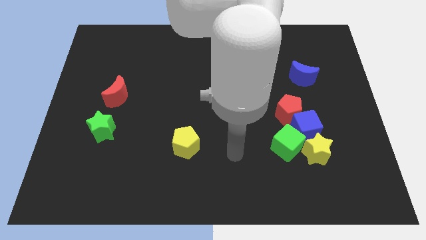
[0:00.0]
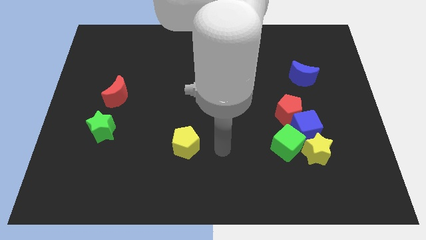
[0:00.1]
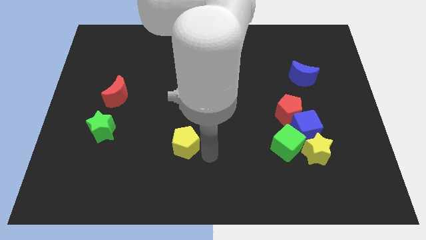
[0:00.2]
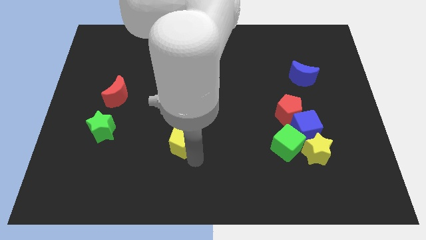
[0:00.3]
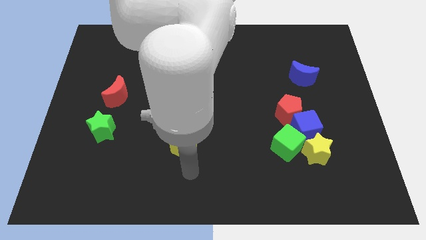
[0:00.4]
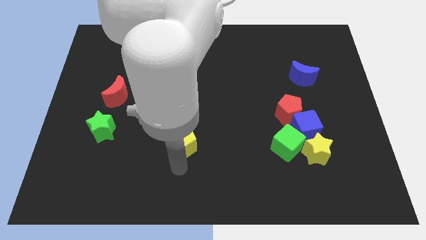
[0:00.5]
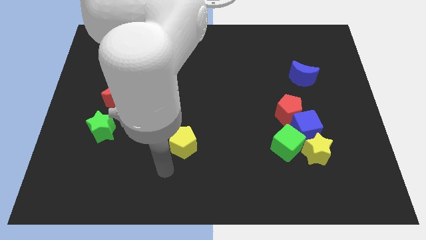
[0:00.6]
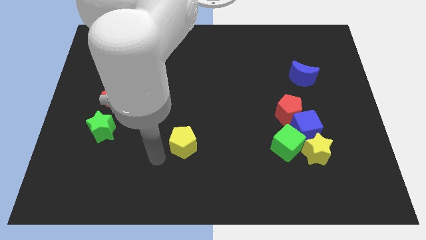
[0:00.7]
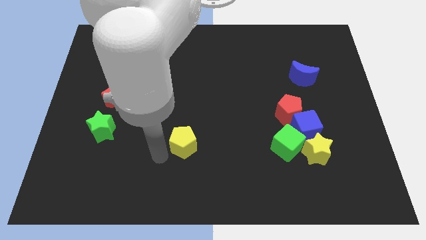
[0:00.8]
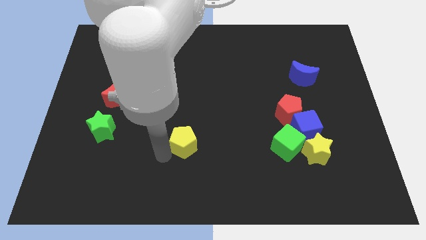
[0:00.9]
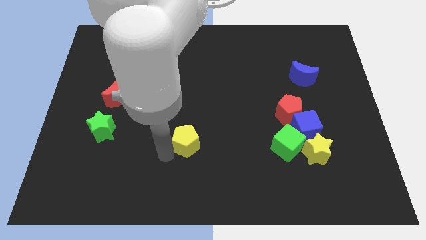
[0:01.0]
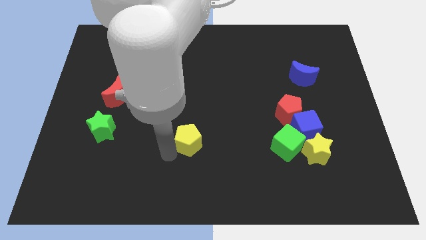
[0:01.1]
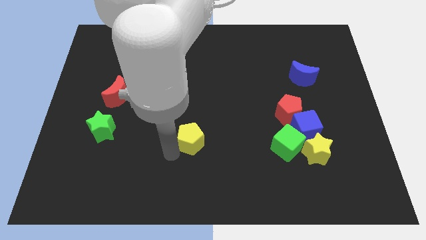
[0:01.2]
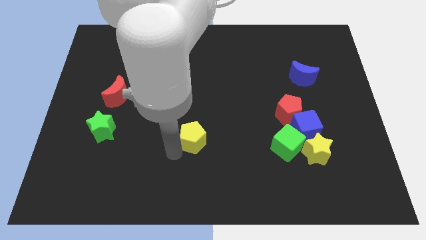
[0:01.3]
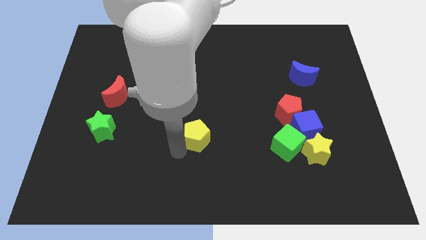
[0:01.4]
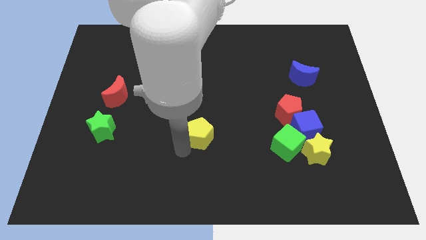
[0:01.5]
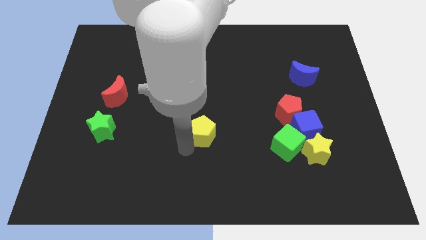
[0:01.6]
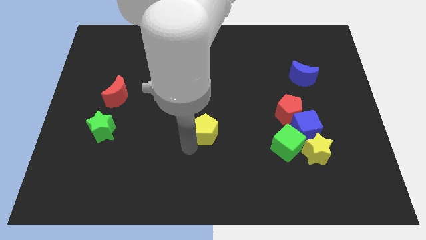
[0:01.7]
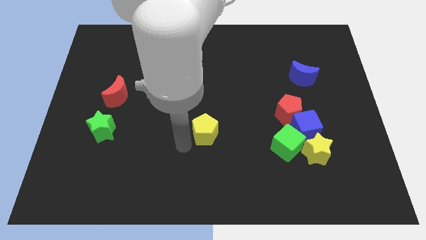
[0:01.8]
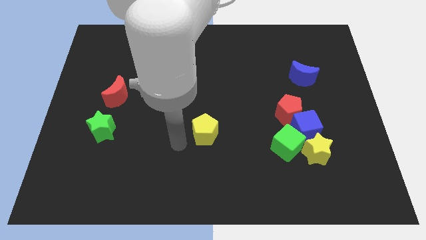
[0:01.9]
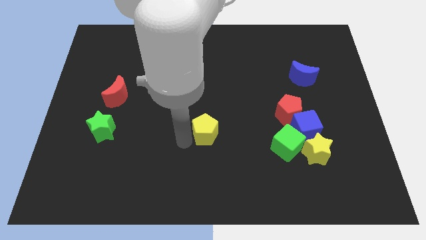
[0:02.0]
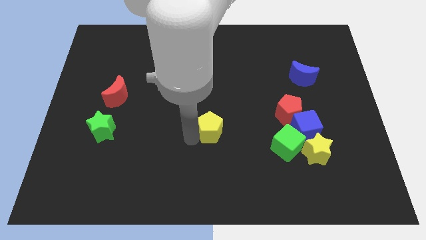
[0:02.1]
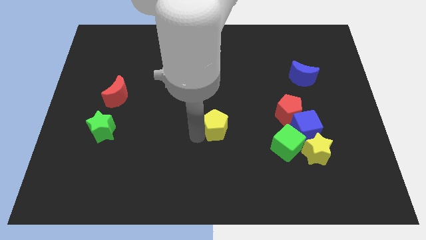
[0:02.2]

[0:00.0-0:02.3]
move the yellow pentagon upwards and right diagonally a little bit

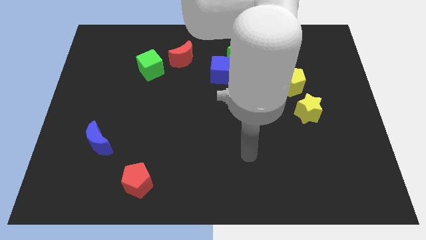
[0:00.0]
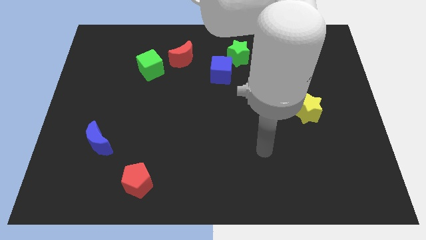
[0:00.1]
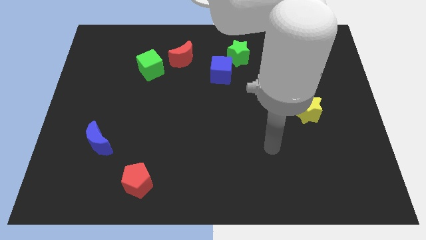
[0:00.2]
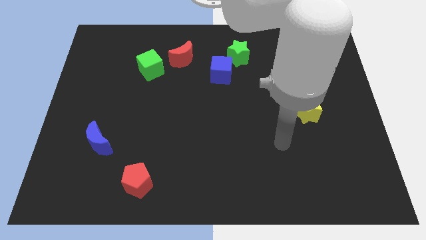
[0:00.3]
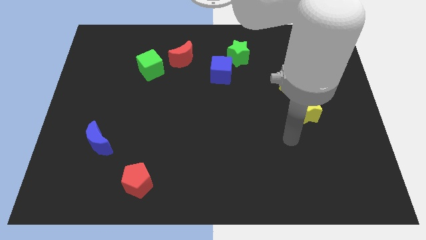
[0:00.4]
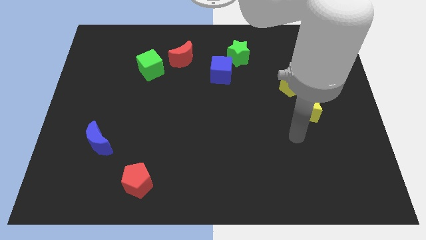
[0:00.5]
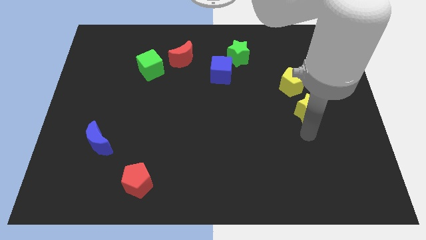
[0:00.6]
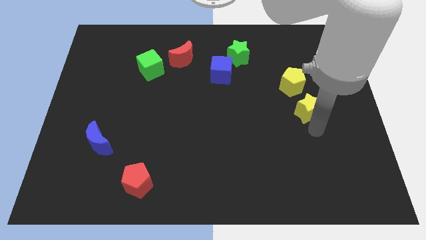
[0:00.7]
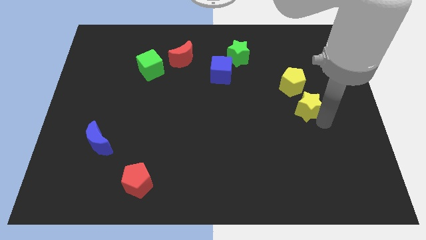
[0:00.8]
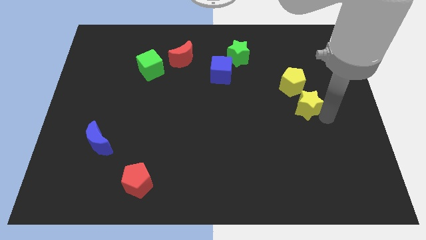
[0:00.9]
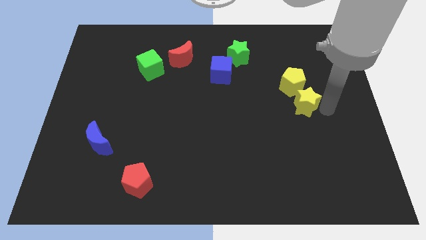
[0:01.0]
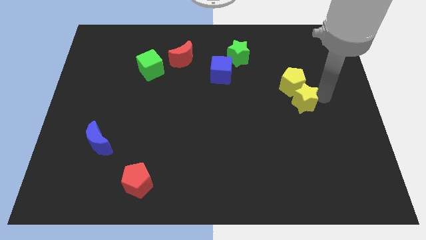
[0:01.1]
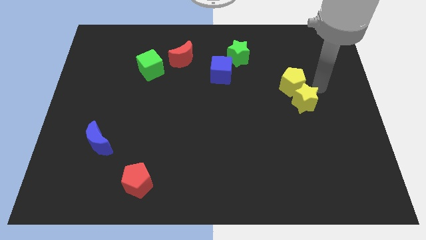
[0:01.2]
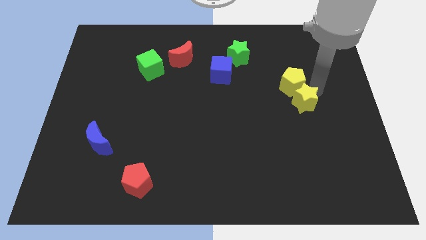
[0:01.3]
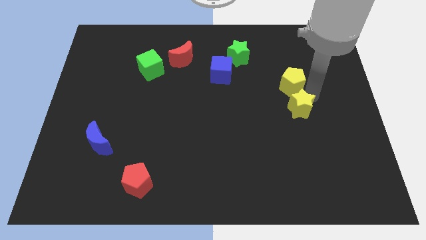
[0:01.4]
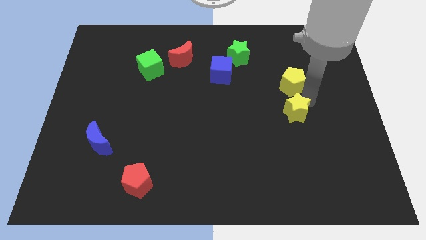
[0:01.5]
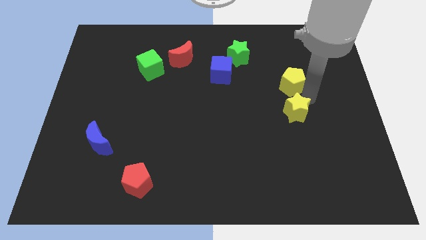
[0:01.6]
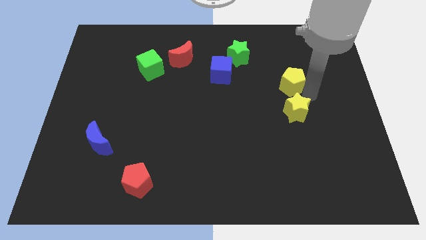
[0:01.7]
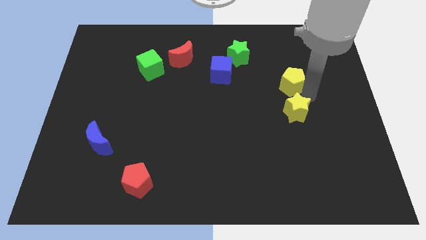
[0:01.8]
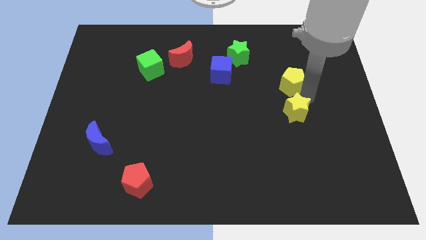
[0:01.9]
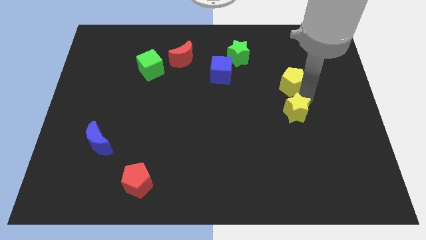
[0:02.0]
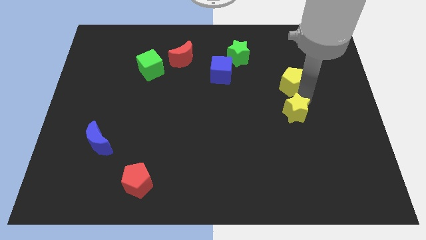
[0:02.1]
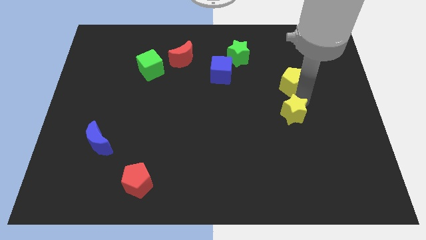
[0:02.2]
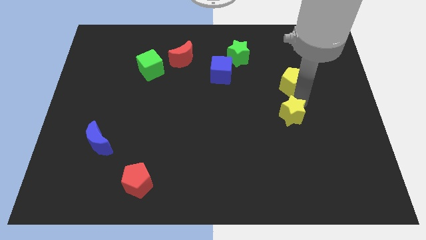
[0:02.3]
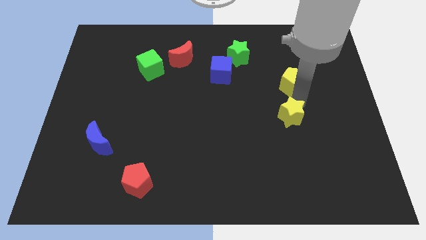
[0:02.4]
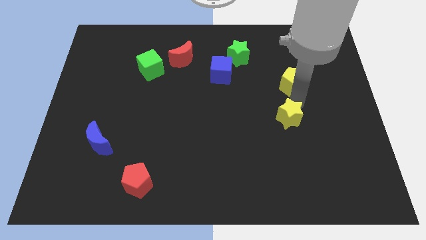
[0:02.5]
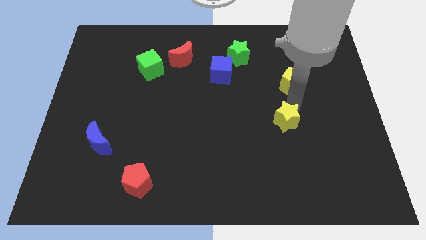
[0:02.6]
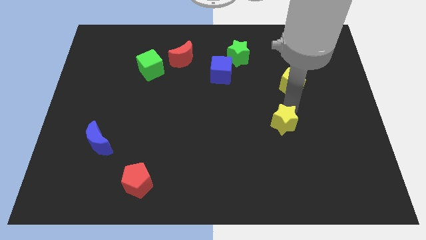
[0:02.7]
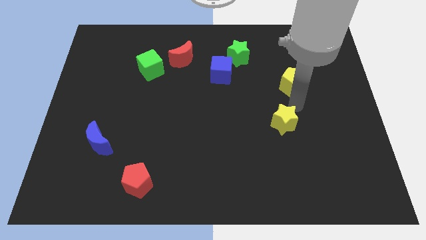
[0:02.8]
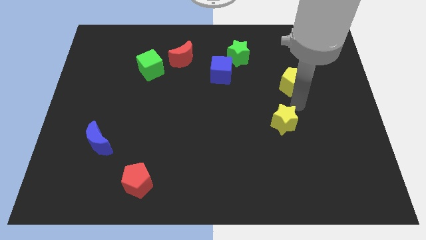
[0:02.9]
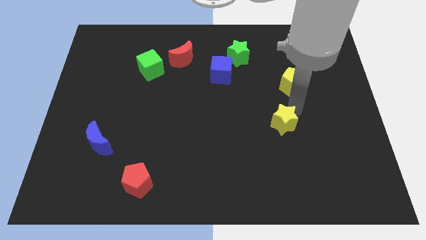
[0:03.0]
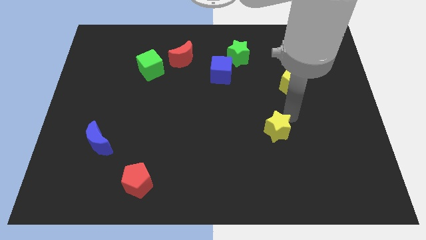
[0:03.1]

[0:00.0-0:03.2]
slightly slide the yellow star down and left diagonally

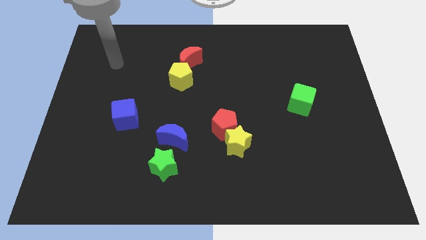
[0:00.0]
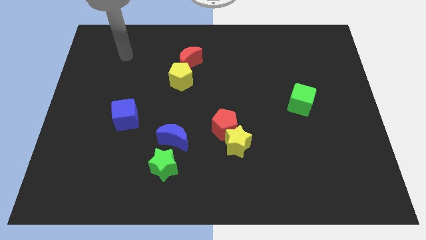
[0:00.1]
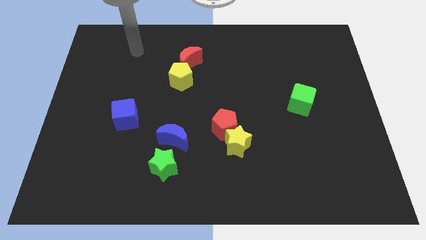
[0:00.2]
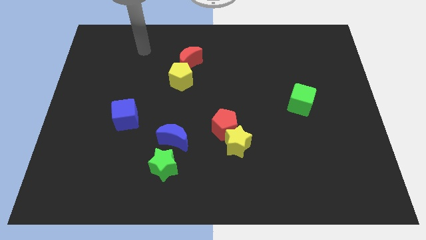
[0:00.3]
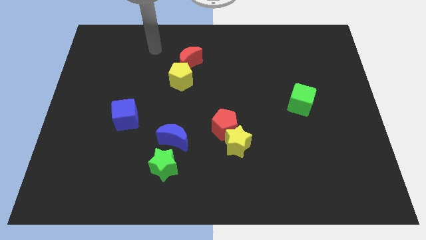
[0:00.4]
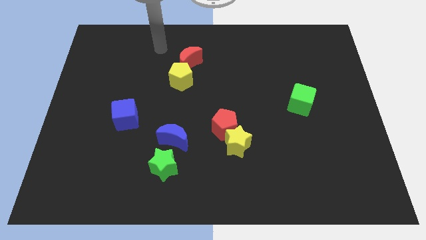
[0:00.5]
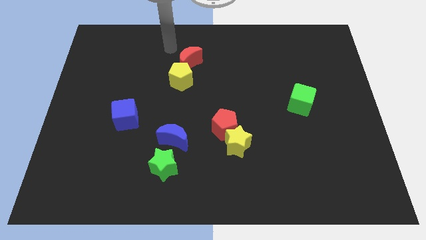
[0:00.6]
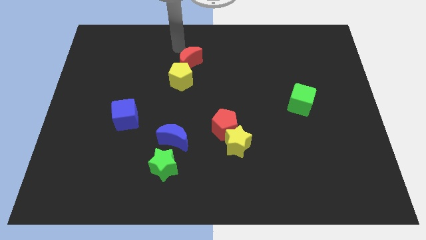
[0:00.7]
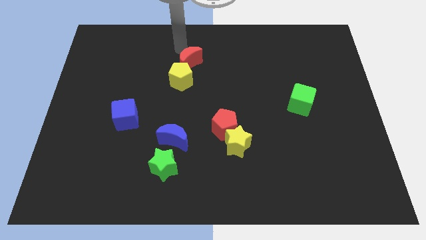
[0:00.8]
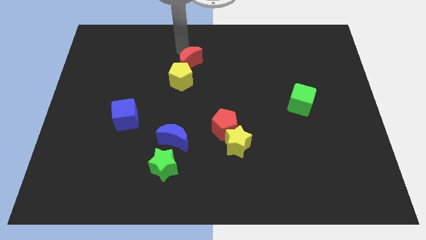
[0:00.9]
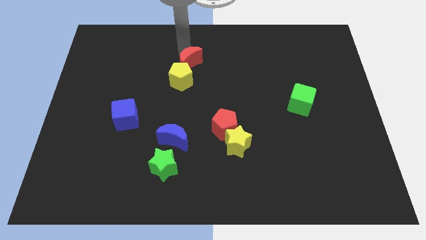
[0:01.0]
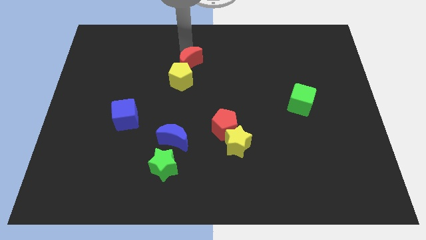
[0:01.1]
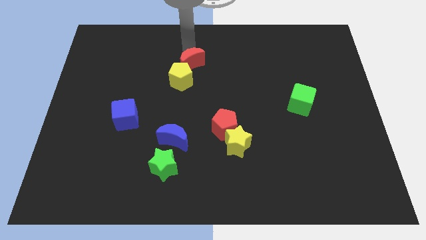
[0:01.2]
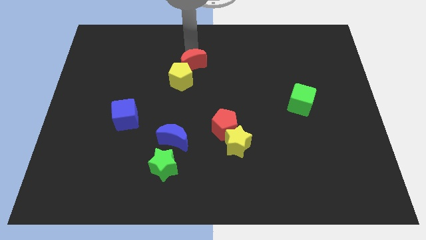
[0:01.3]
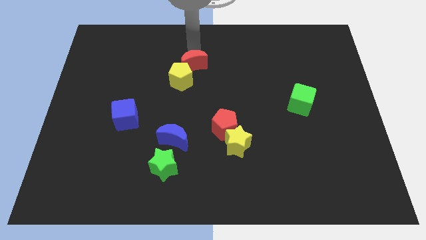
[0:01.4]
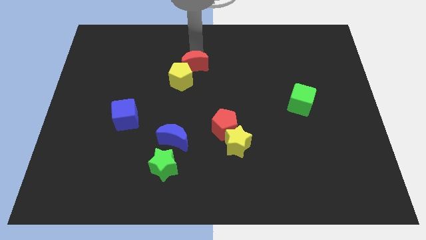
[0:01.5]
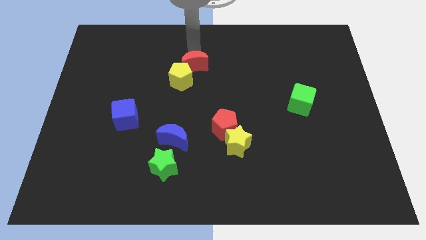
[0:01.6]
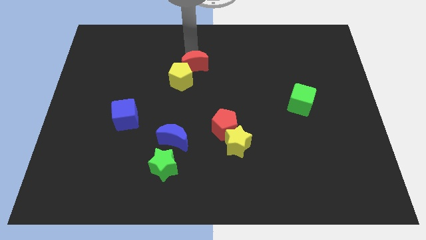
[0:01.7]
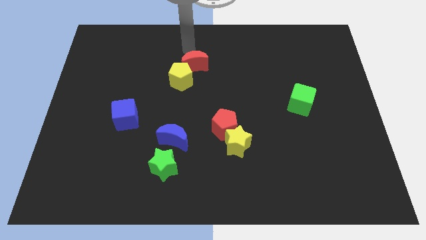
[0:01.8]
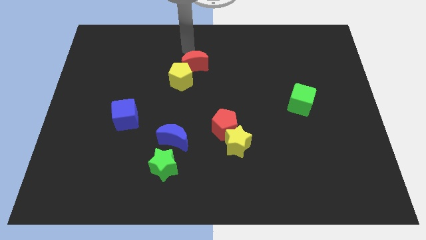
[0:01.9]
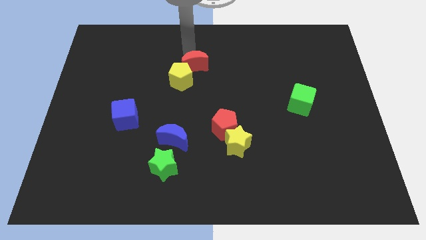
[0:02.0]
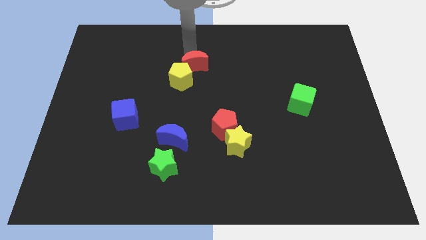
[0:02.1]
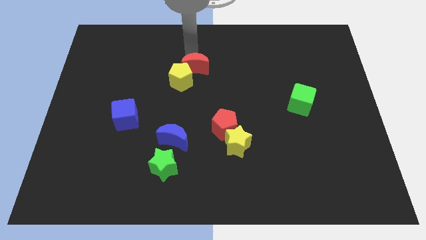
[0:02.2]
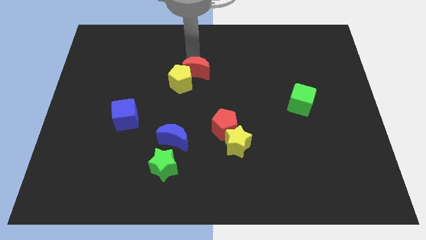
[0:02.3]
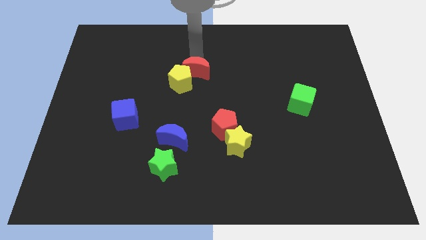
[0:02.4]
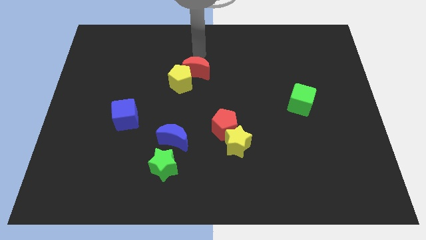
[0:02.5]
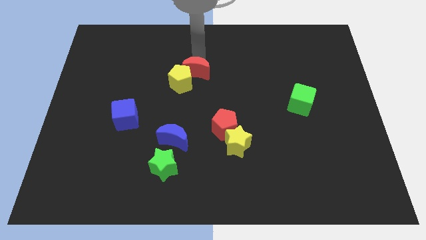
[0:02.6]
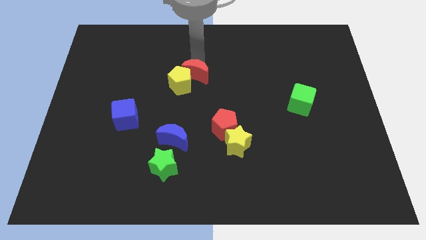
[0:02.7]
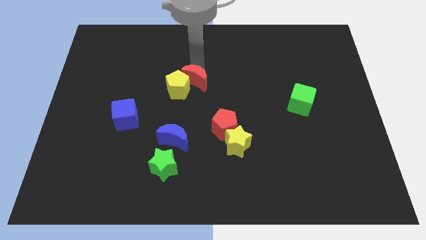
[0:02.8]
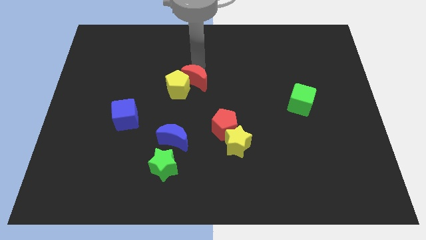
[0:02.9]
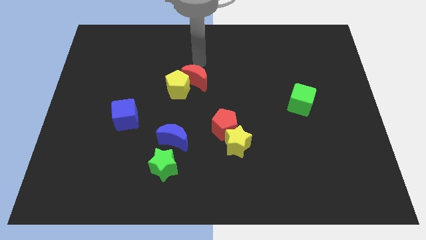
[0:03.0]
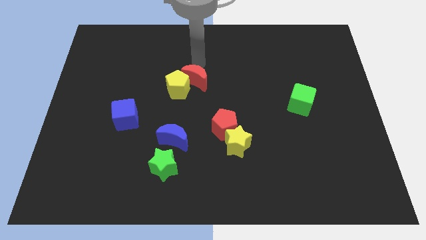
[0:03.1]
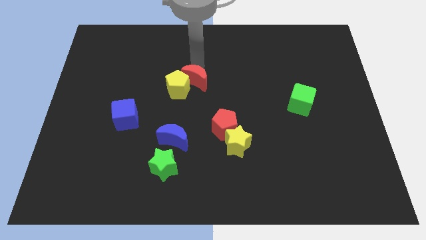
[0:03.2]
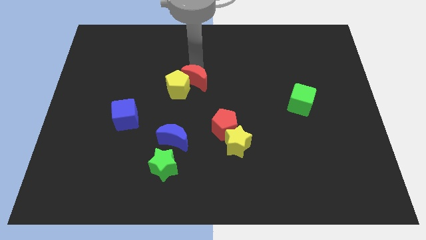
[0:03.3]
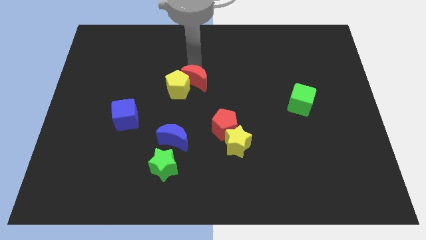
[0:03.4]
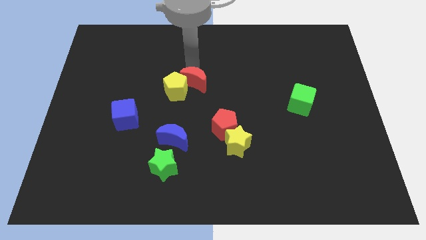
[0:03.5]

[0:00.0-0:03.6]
push the red moon downwards a little
